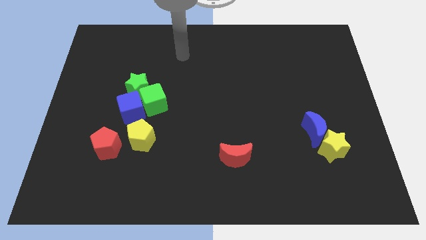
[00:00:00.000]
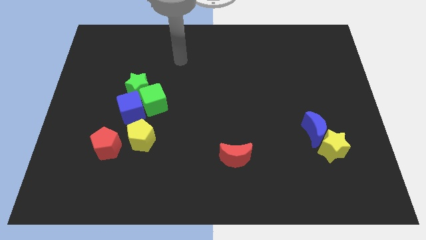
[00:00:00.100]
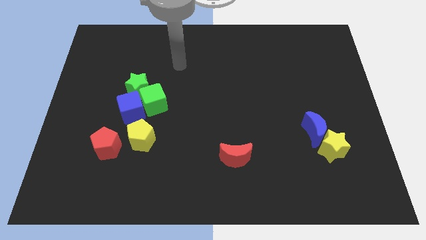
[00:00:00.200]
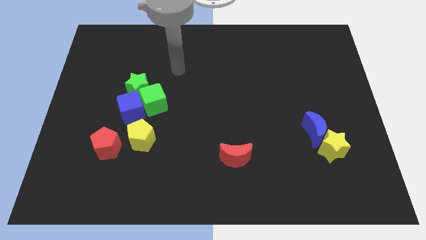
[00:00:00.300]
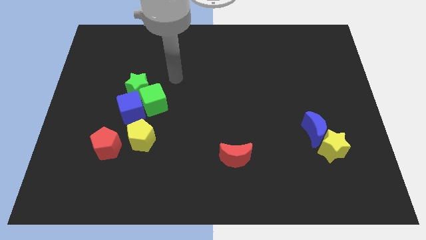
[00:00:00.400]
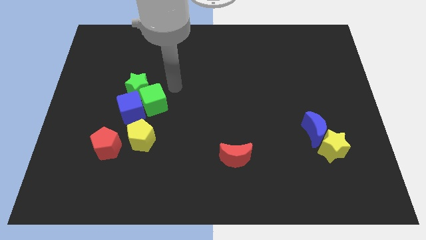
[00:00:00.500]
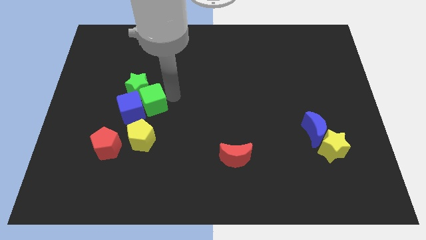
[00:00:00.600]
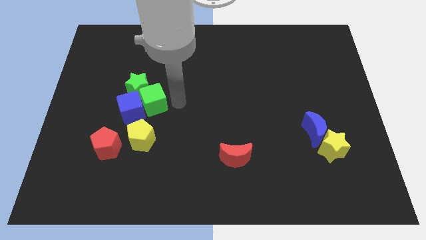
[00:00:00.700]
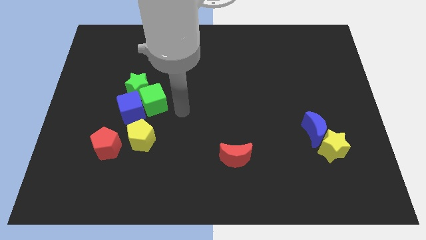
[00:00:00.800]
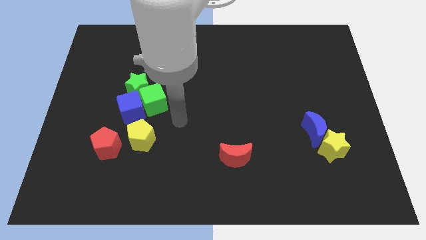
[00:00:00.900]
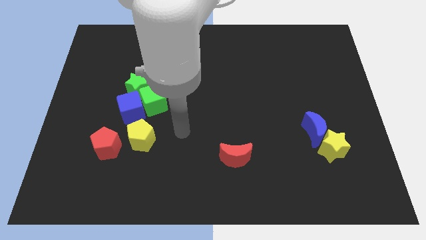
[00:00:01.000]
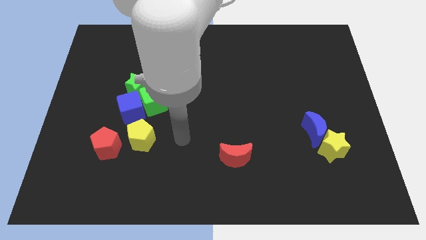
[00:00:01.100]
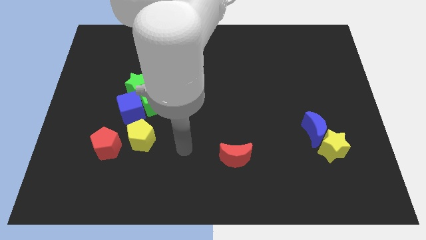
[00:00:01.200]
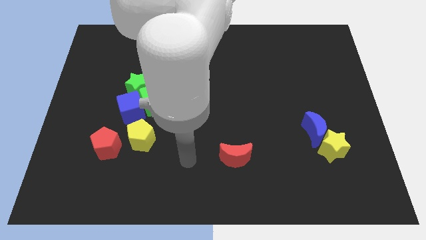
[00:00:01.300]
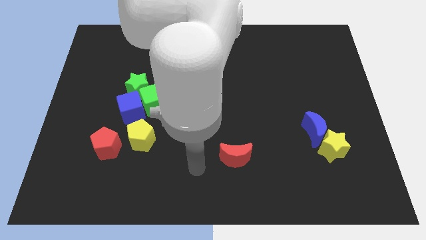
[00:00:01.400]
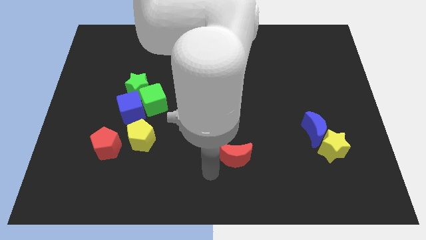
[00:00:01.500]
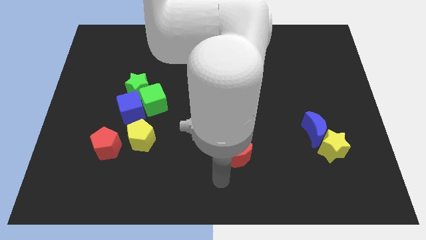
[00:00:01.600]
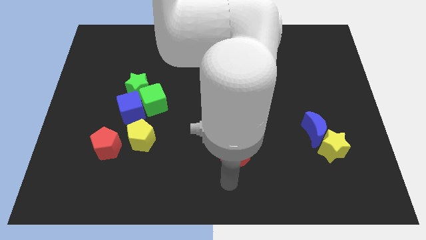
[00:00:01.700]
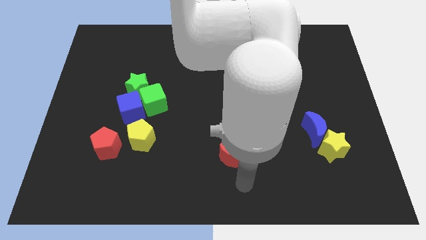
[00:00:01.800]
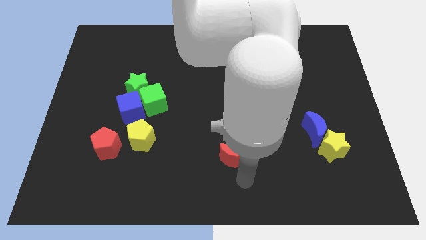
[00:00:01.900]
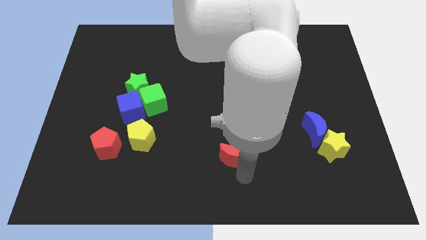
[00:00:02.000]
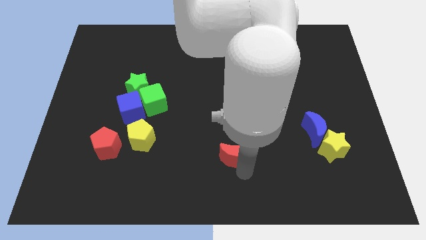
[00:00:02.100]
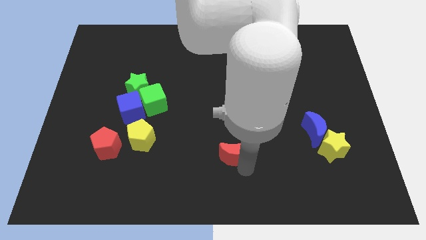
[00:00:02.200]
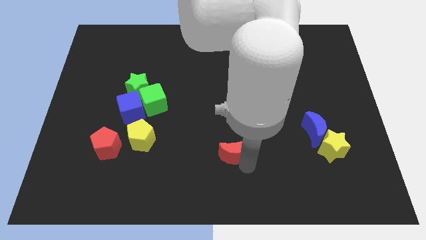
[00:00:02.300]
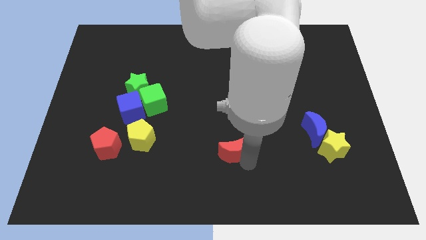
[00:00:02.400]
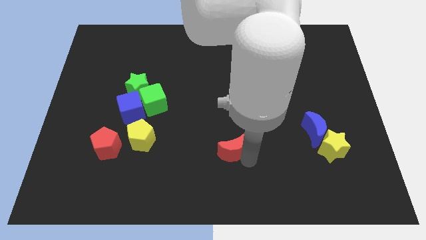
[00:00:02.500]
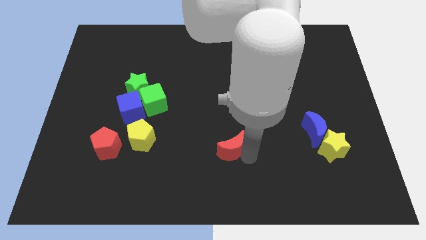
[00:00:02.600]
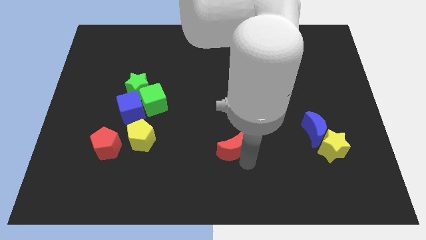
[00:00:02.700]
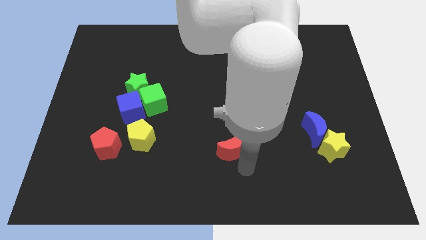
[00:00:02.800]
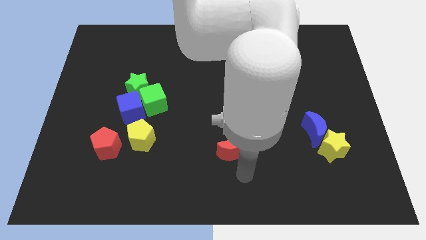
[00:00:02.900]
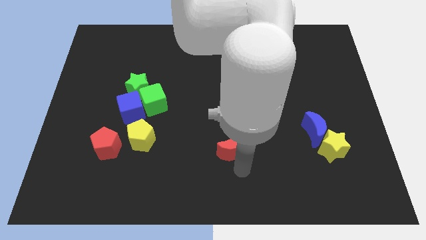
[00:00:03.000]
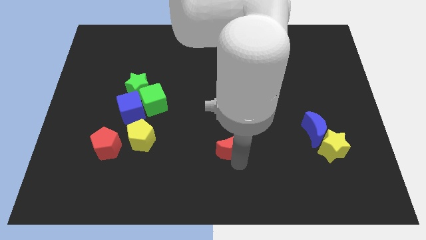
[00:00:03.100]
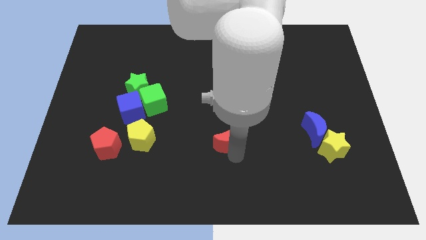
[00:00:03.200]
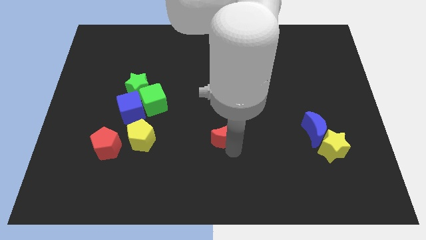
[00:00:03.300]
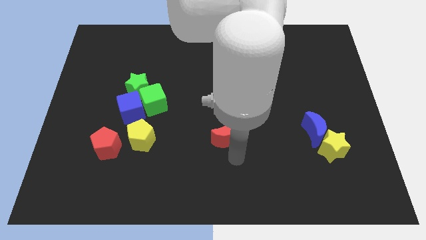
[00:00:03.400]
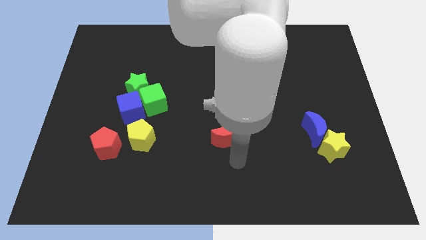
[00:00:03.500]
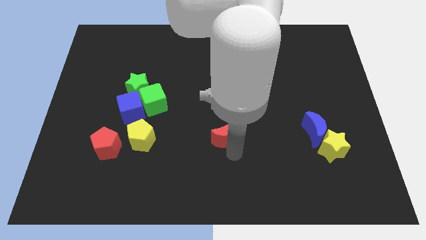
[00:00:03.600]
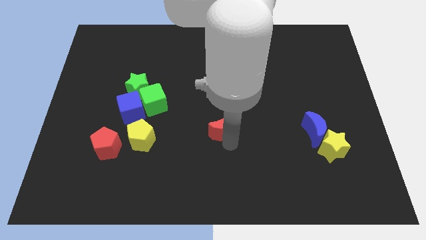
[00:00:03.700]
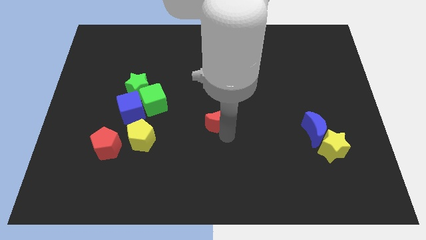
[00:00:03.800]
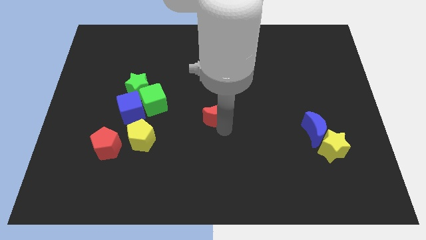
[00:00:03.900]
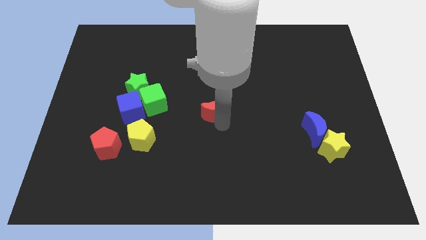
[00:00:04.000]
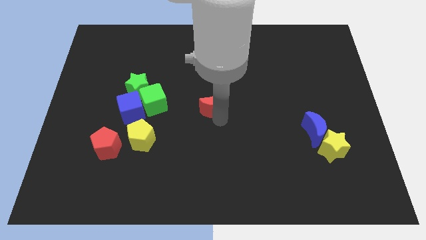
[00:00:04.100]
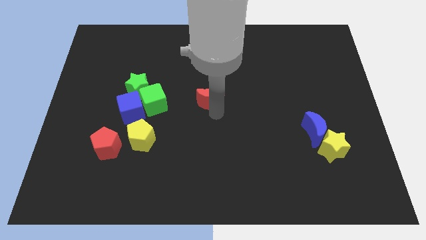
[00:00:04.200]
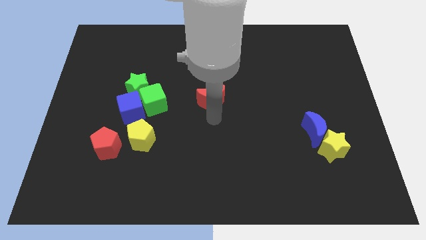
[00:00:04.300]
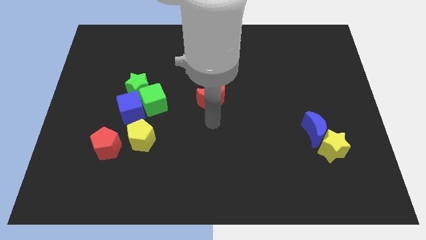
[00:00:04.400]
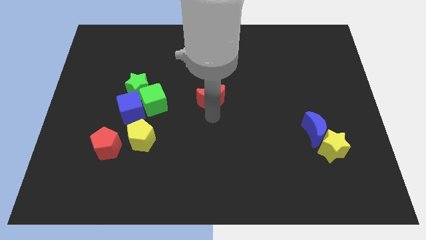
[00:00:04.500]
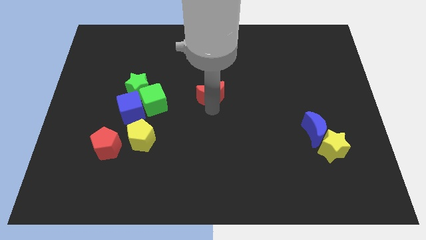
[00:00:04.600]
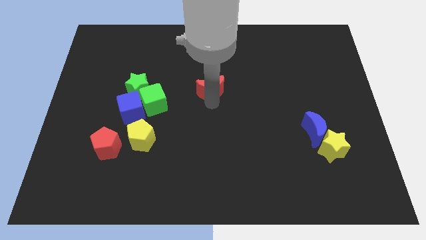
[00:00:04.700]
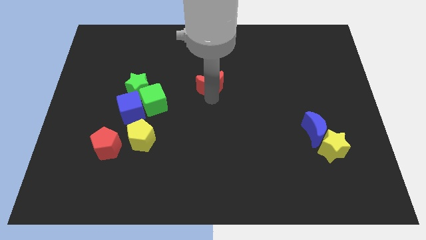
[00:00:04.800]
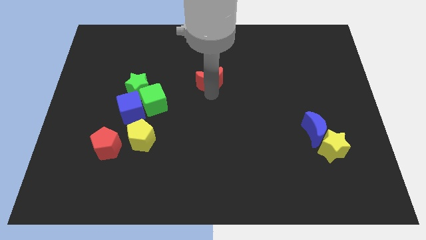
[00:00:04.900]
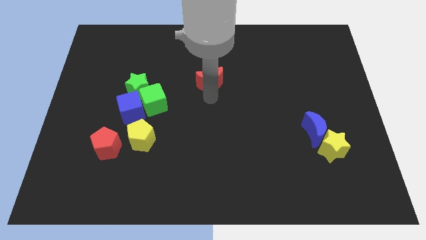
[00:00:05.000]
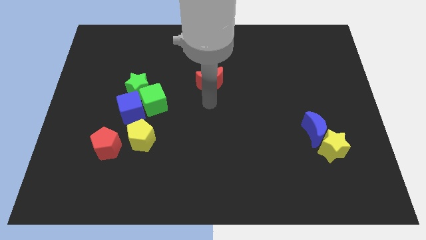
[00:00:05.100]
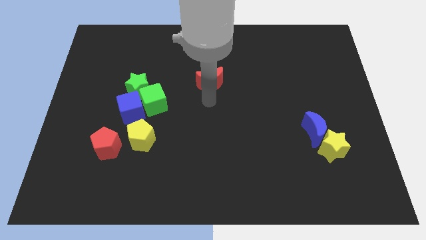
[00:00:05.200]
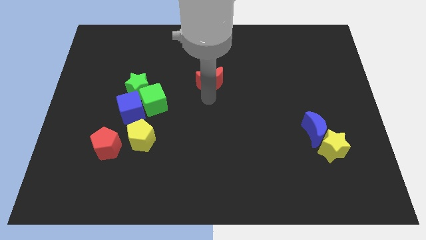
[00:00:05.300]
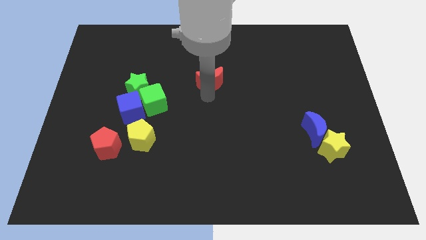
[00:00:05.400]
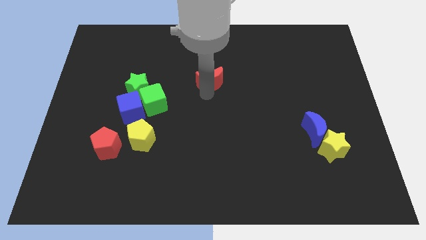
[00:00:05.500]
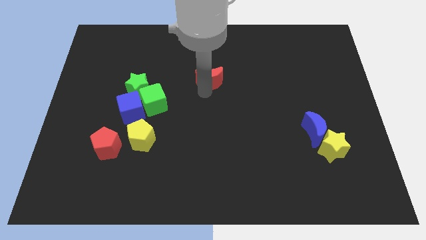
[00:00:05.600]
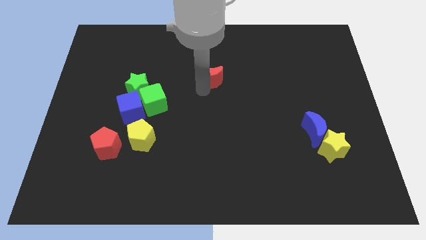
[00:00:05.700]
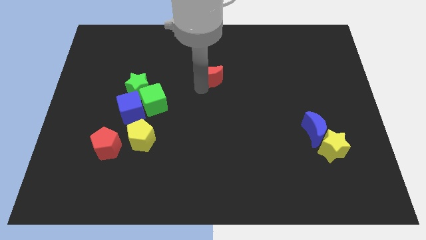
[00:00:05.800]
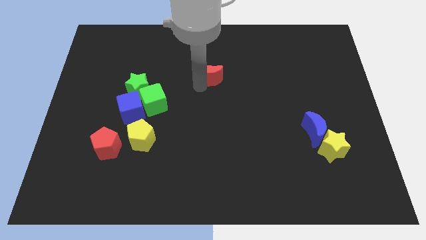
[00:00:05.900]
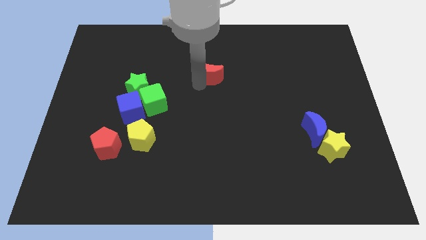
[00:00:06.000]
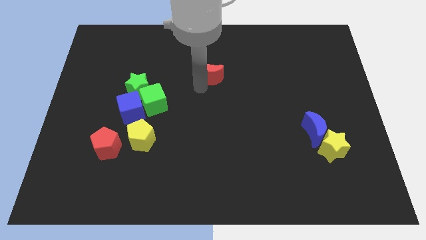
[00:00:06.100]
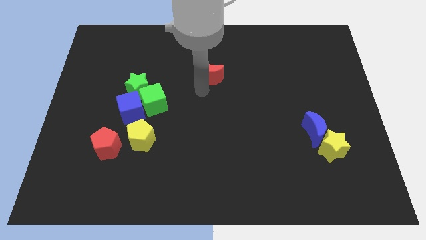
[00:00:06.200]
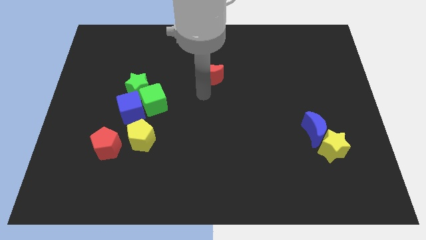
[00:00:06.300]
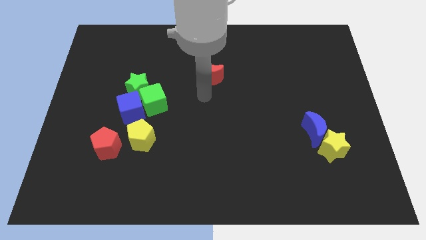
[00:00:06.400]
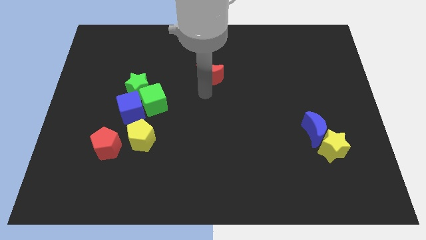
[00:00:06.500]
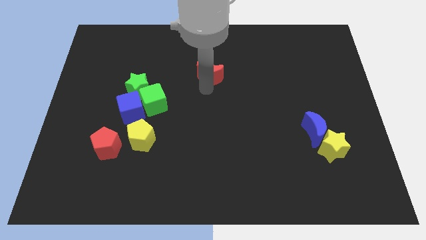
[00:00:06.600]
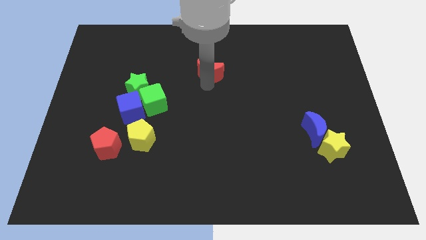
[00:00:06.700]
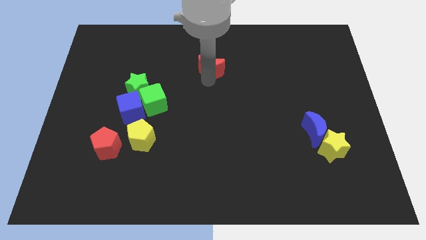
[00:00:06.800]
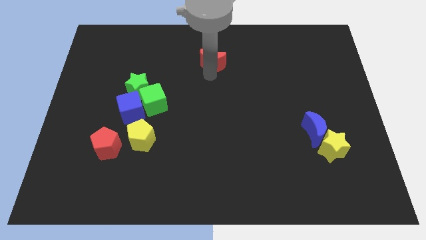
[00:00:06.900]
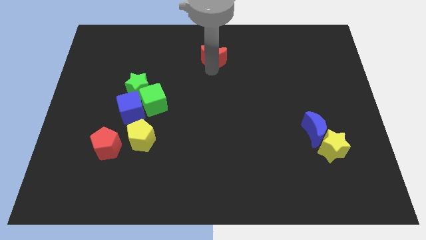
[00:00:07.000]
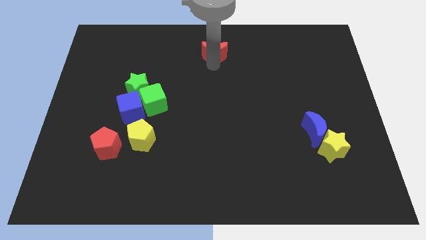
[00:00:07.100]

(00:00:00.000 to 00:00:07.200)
move the red moon to the top
